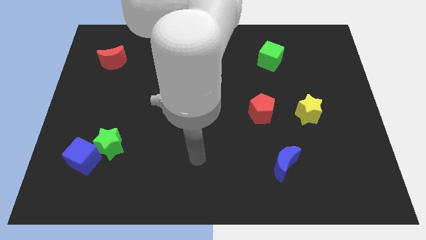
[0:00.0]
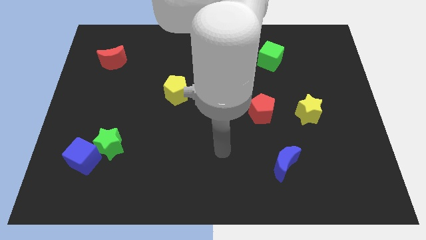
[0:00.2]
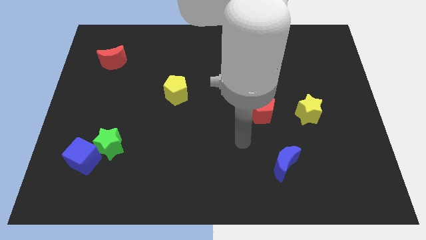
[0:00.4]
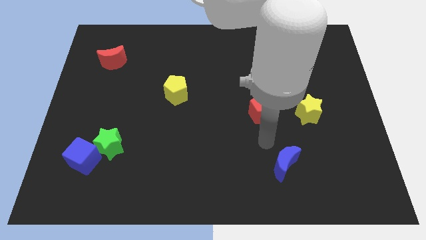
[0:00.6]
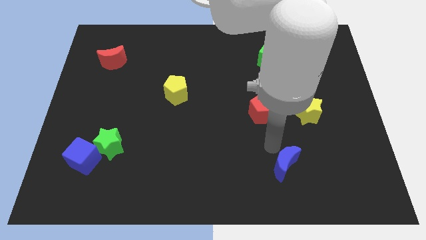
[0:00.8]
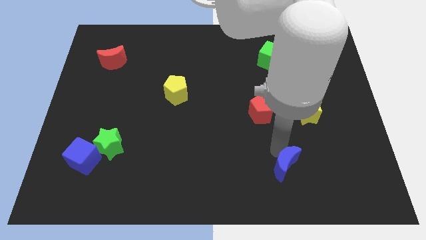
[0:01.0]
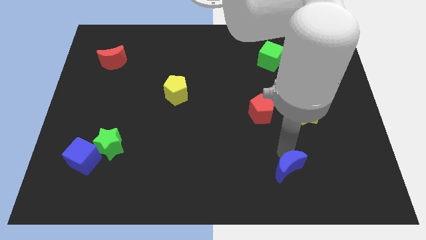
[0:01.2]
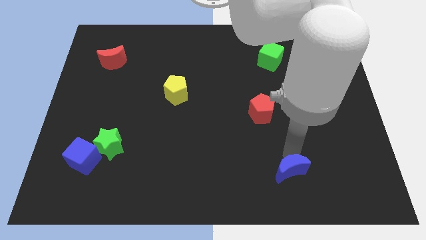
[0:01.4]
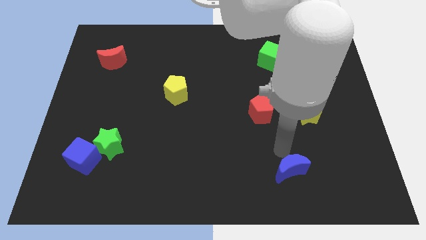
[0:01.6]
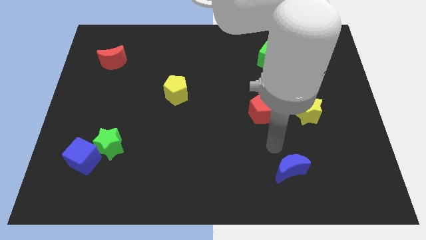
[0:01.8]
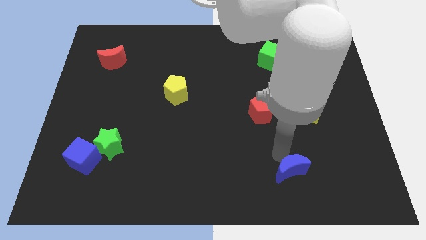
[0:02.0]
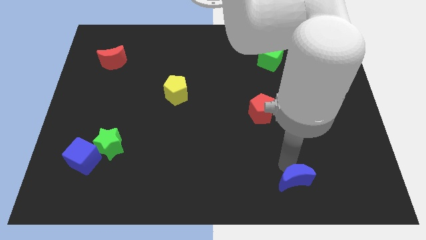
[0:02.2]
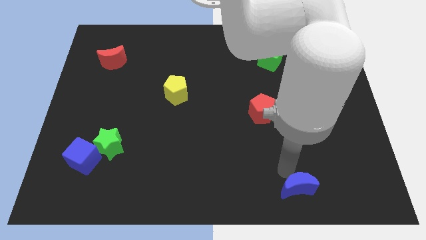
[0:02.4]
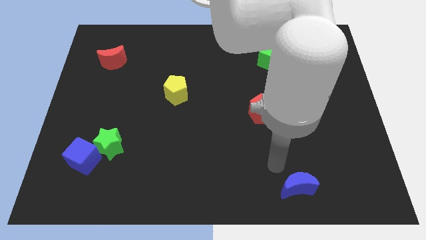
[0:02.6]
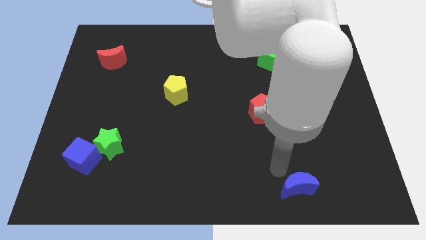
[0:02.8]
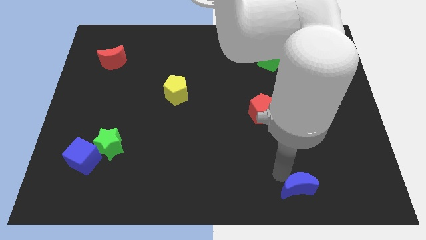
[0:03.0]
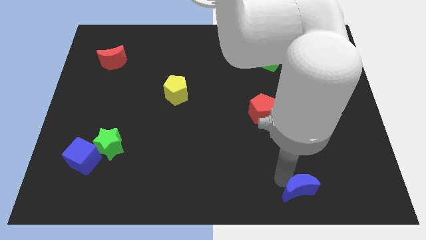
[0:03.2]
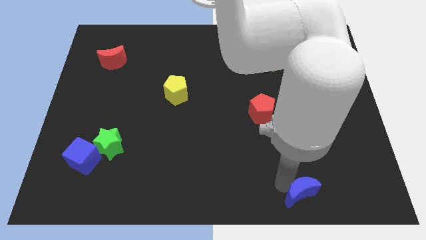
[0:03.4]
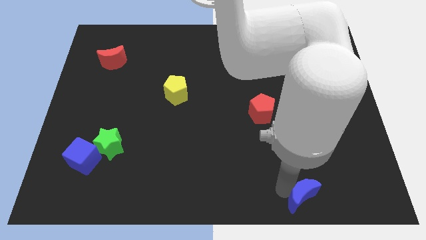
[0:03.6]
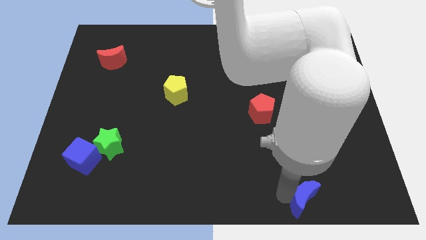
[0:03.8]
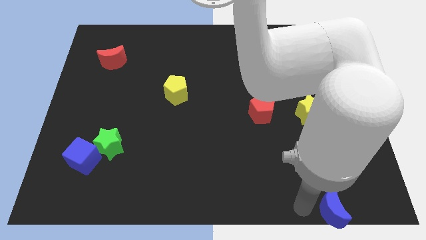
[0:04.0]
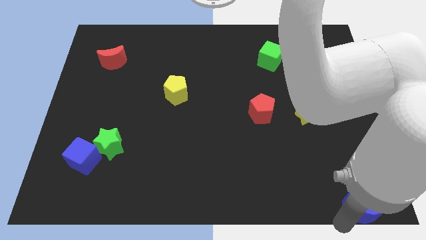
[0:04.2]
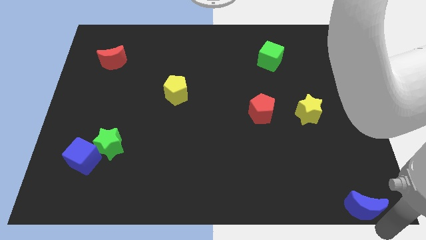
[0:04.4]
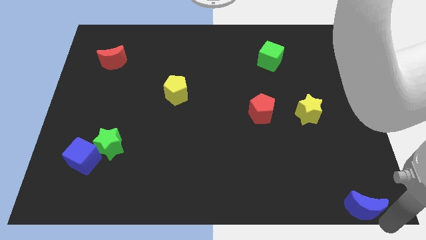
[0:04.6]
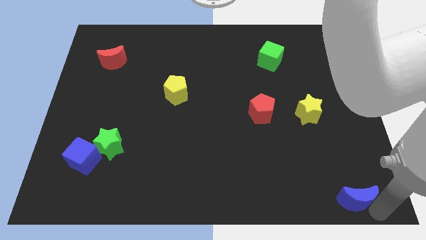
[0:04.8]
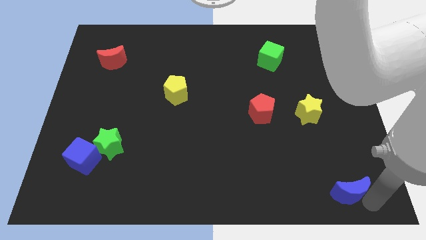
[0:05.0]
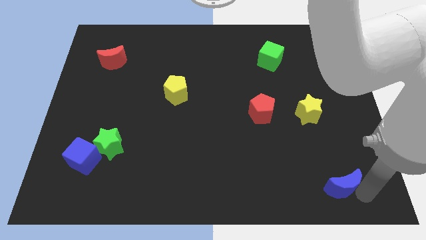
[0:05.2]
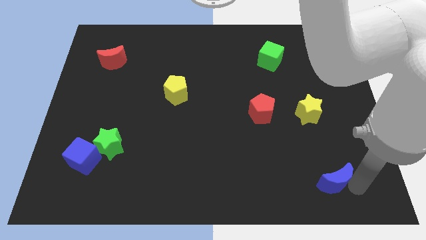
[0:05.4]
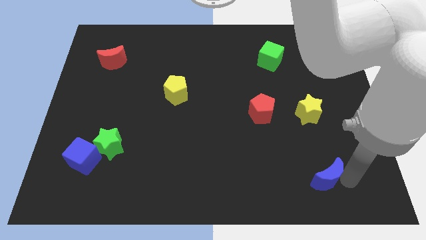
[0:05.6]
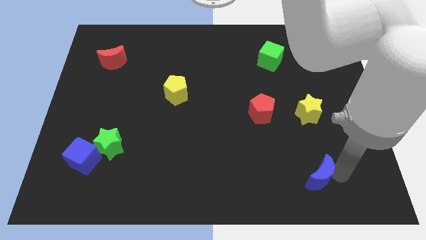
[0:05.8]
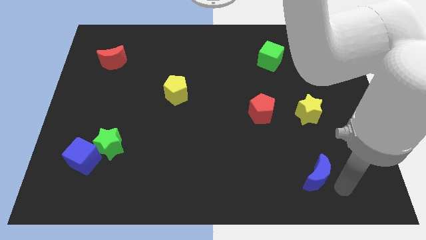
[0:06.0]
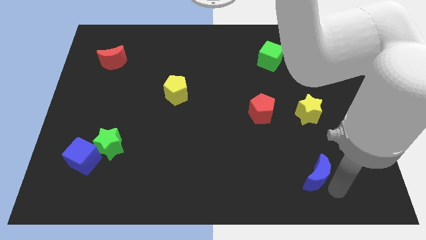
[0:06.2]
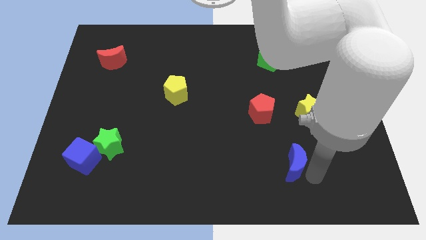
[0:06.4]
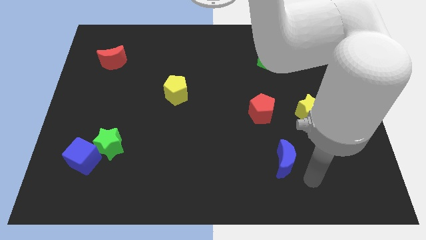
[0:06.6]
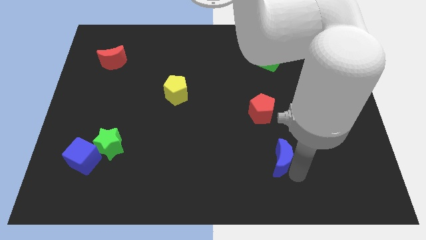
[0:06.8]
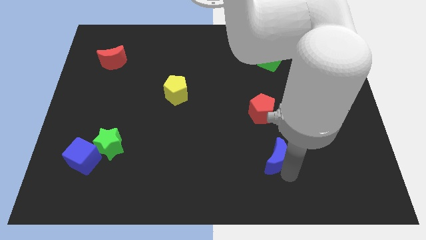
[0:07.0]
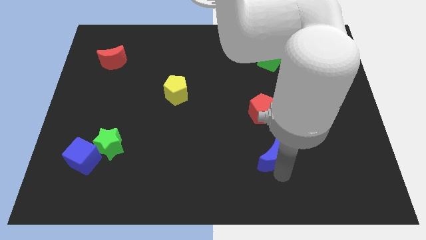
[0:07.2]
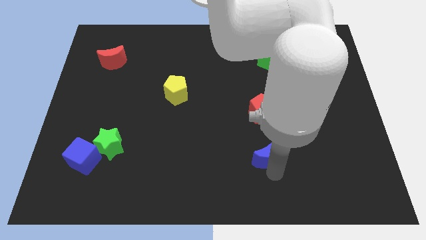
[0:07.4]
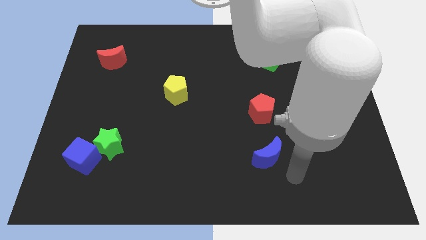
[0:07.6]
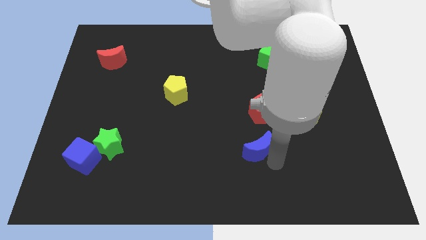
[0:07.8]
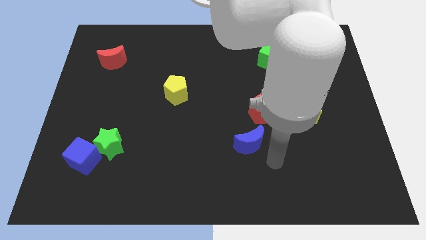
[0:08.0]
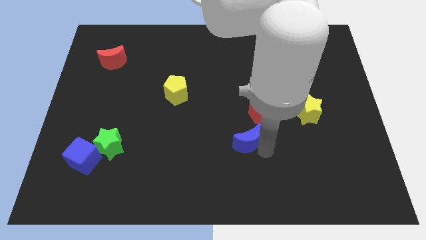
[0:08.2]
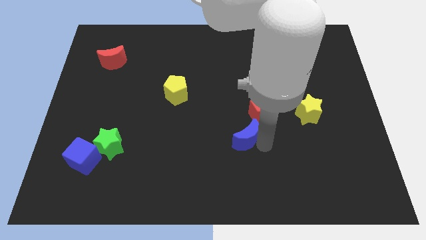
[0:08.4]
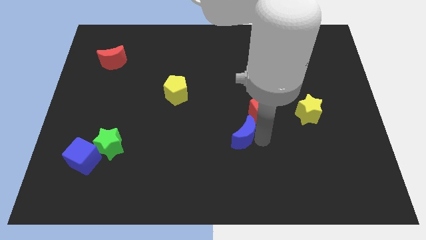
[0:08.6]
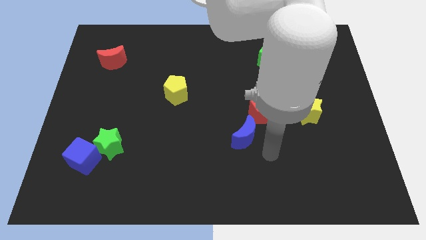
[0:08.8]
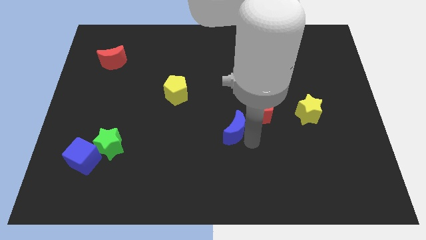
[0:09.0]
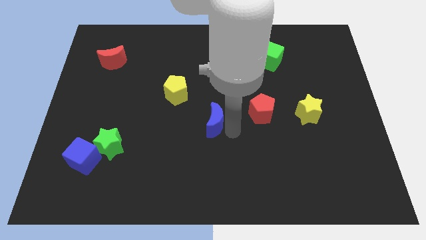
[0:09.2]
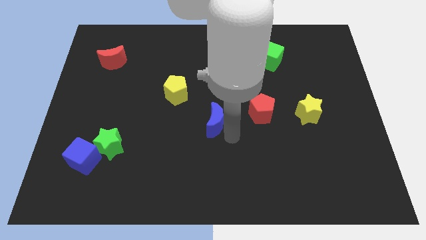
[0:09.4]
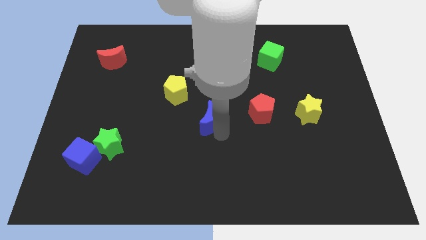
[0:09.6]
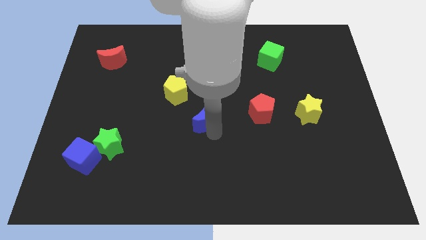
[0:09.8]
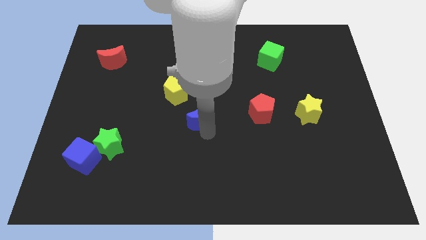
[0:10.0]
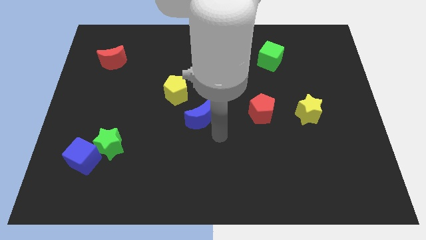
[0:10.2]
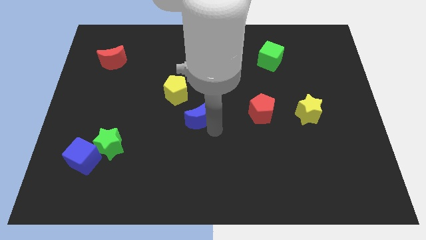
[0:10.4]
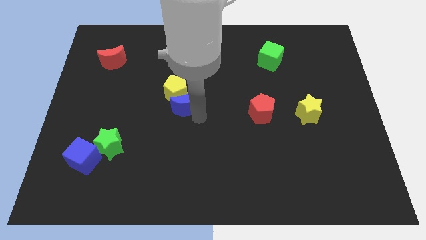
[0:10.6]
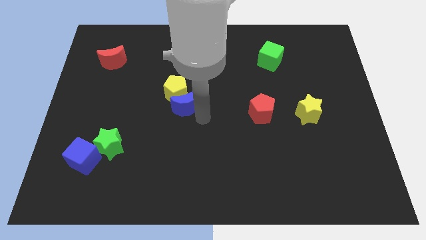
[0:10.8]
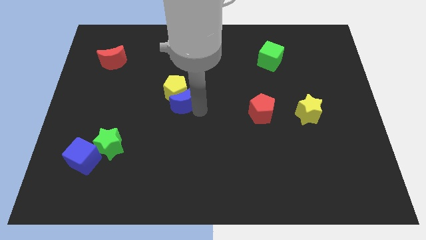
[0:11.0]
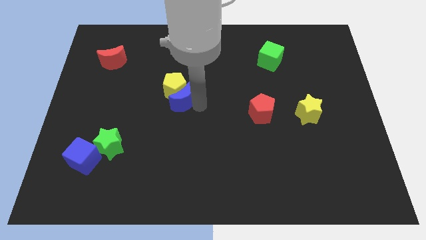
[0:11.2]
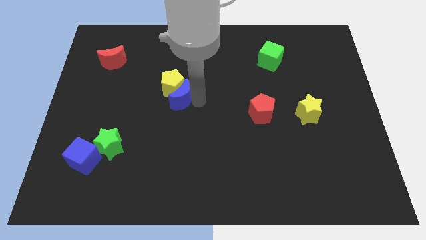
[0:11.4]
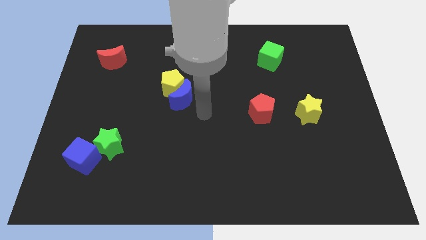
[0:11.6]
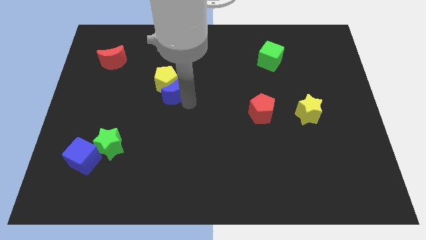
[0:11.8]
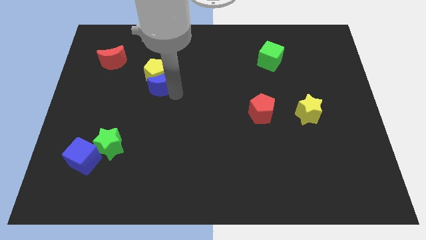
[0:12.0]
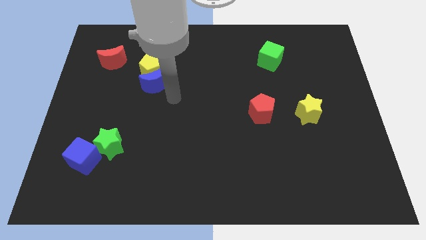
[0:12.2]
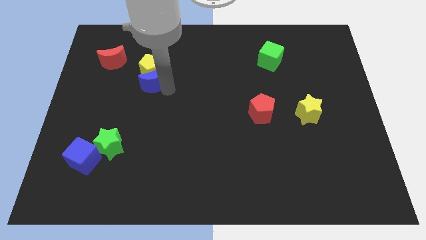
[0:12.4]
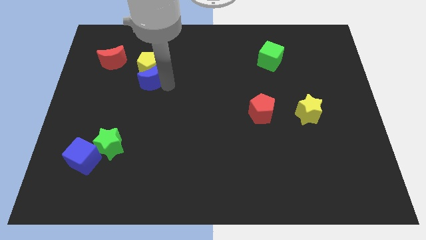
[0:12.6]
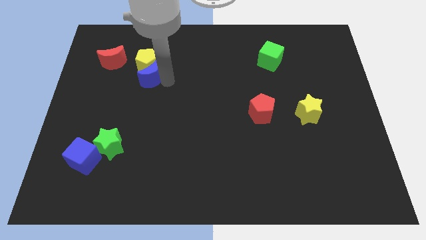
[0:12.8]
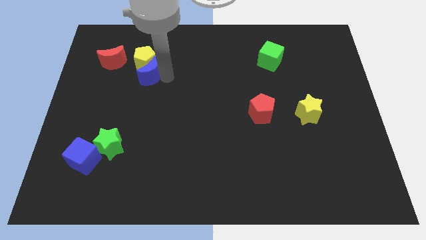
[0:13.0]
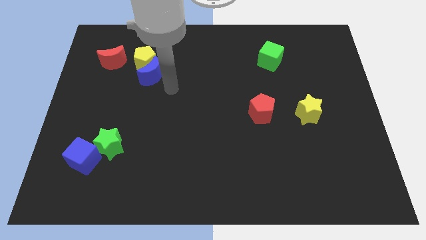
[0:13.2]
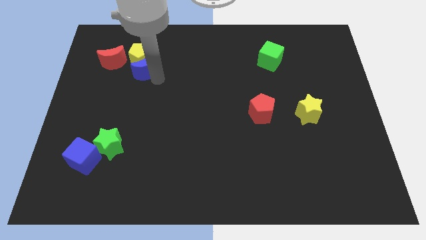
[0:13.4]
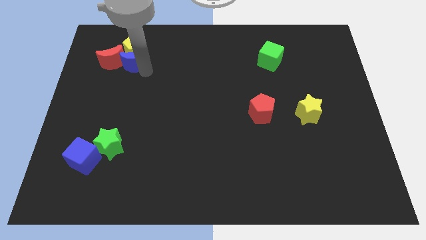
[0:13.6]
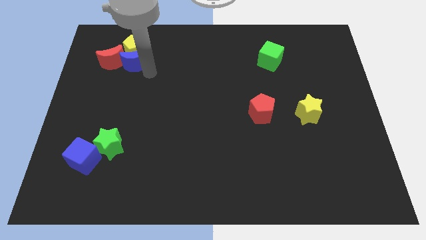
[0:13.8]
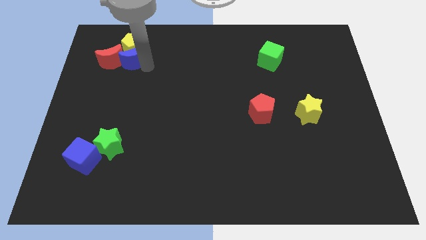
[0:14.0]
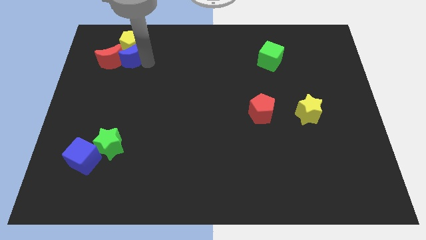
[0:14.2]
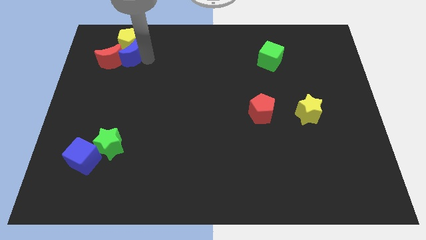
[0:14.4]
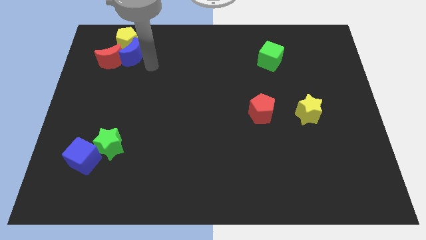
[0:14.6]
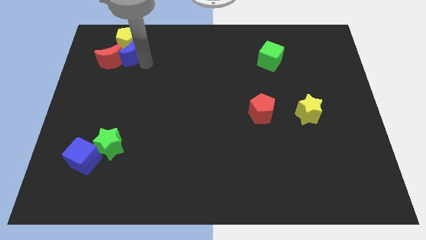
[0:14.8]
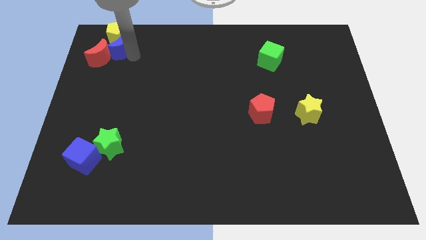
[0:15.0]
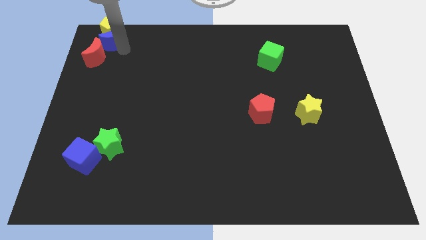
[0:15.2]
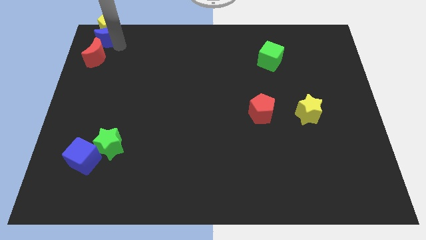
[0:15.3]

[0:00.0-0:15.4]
slide the blue moon to the top left corner
